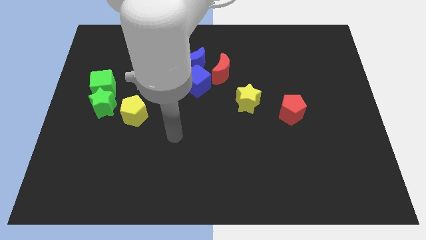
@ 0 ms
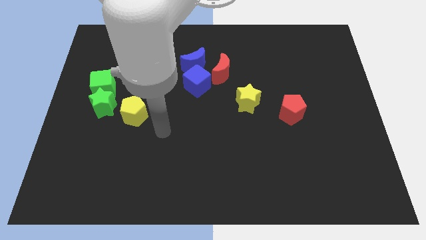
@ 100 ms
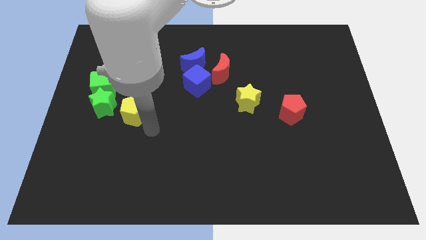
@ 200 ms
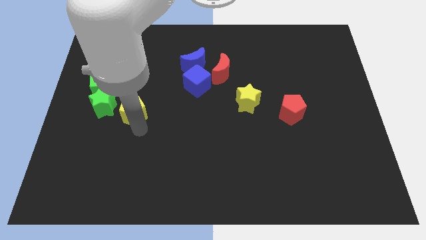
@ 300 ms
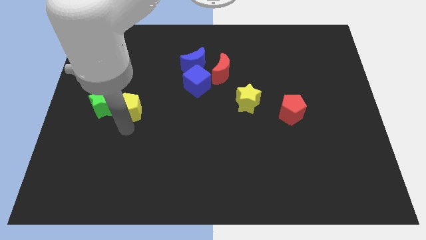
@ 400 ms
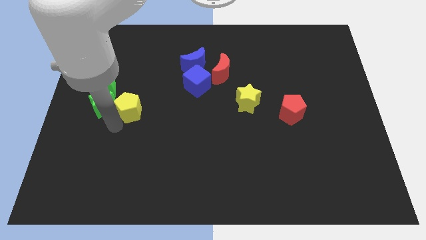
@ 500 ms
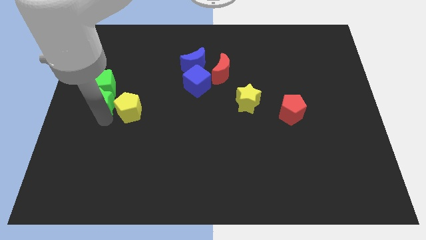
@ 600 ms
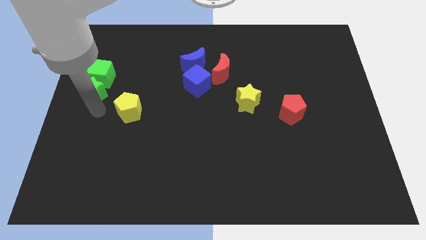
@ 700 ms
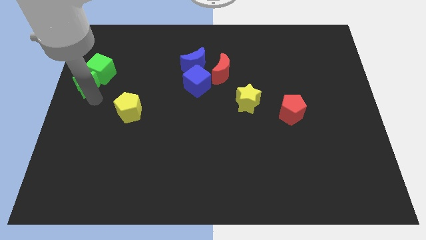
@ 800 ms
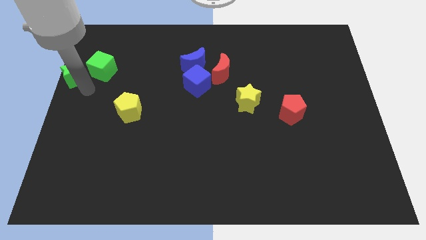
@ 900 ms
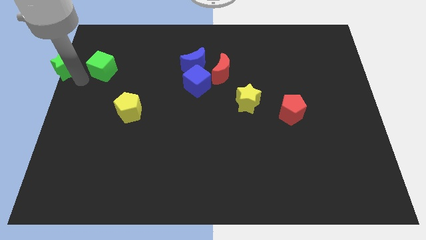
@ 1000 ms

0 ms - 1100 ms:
separate the green cube from the green star

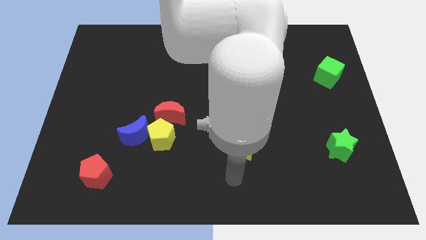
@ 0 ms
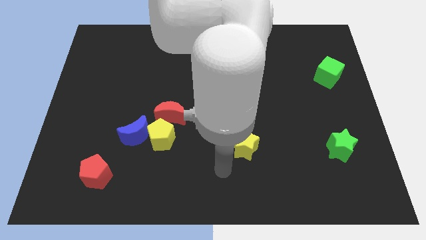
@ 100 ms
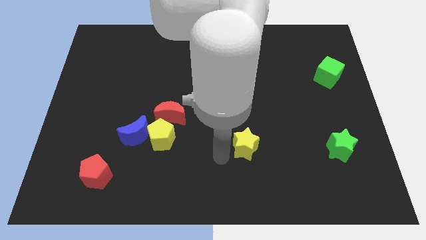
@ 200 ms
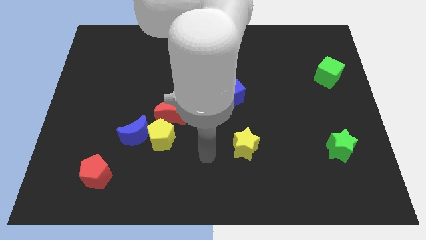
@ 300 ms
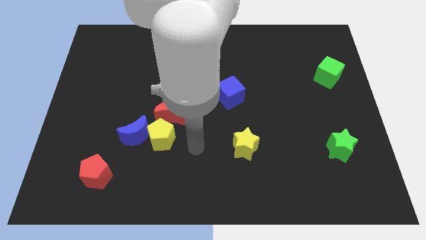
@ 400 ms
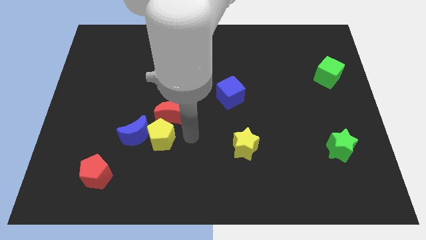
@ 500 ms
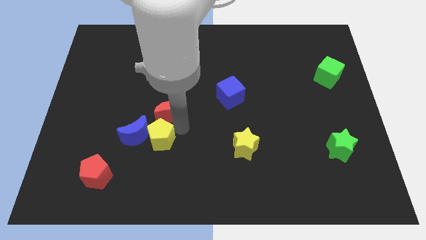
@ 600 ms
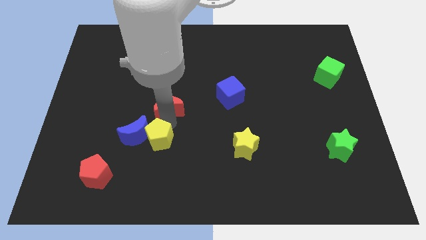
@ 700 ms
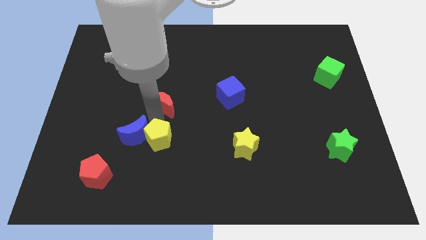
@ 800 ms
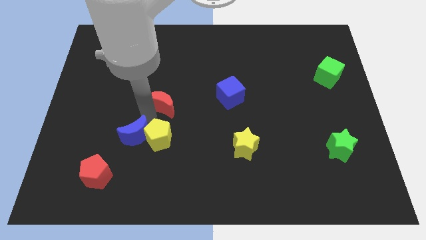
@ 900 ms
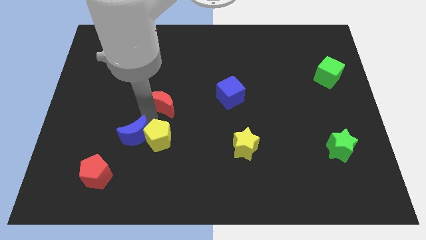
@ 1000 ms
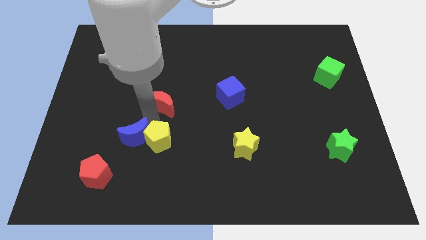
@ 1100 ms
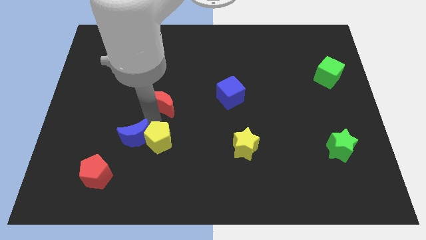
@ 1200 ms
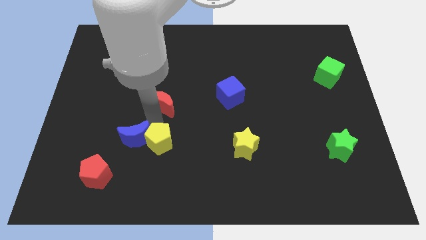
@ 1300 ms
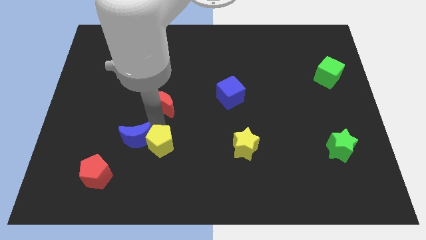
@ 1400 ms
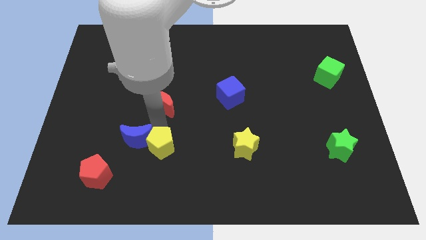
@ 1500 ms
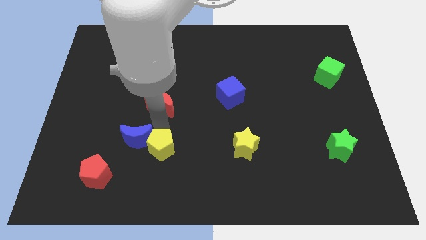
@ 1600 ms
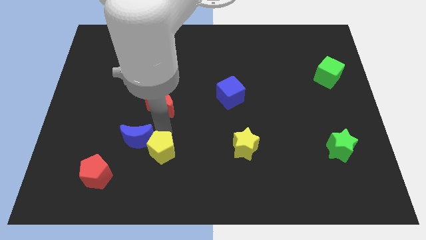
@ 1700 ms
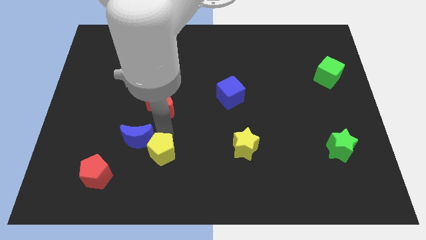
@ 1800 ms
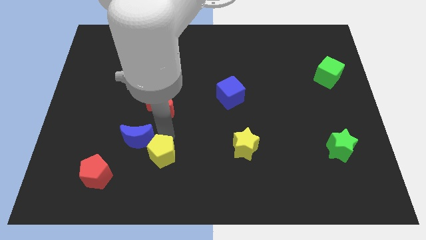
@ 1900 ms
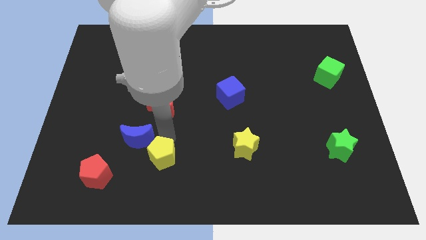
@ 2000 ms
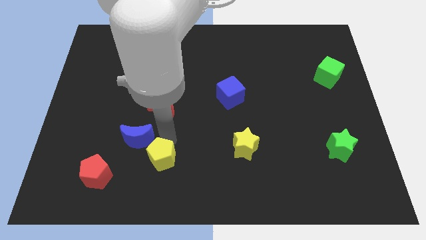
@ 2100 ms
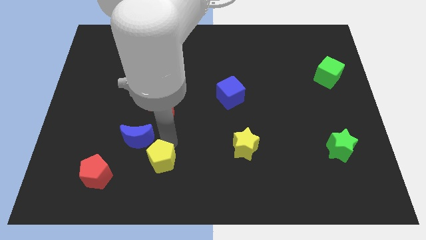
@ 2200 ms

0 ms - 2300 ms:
move the yellow pentagon away from the blue moon and red moon

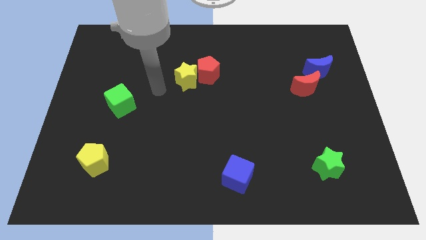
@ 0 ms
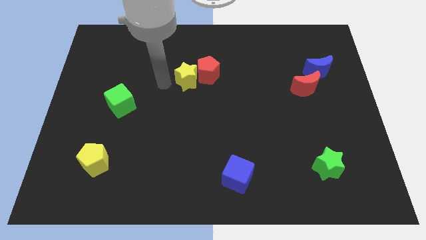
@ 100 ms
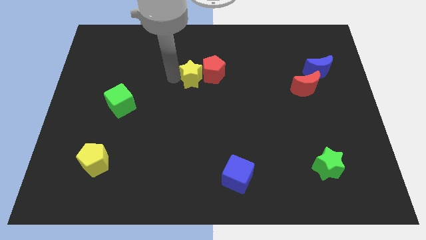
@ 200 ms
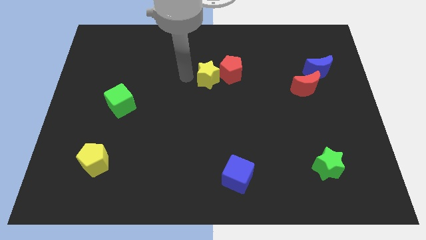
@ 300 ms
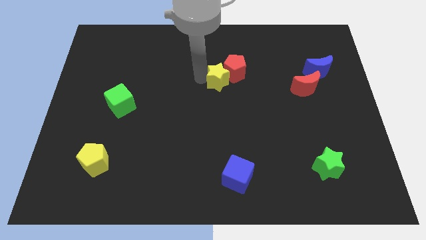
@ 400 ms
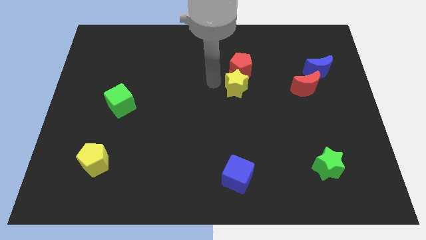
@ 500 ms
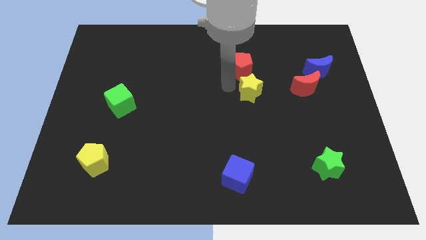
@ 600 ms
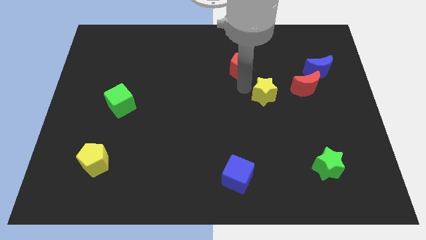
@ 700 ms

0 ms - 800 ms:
separate the red pentagon from the yellow star

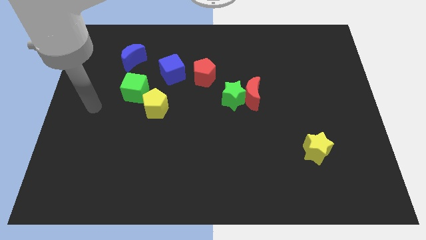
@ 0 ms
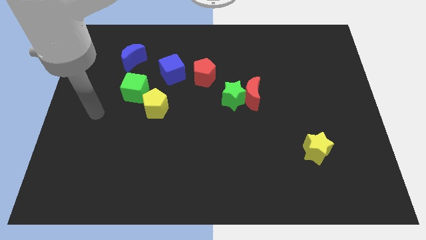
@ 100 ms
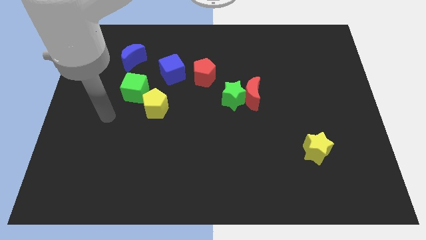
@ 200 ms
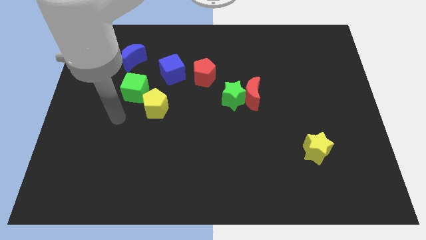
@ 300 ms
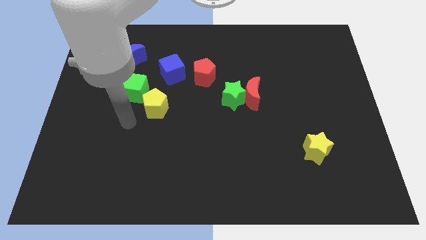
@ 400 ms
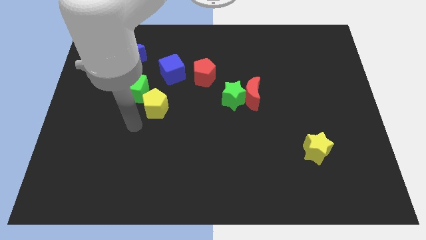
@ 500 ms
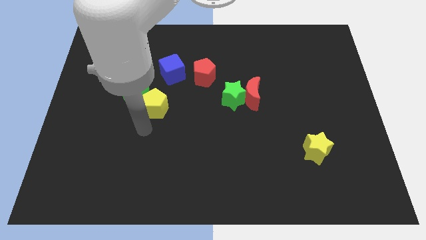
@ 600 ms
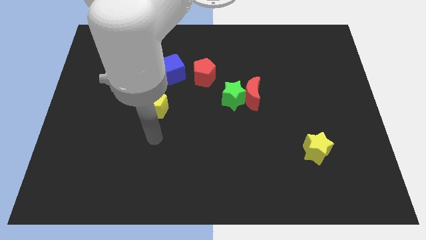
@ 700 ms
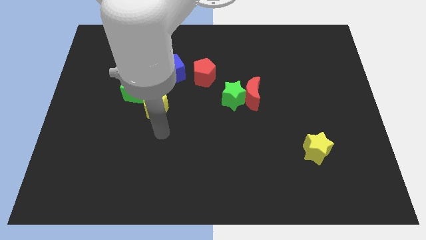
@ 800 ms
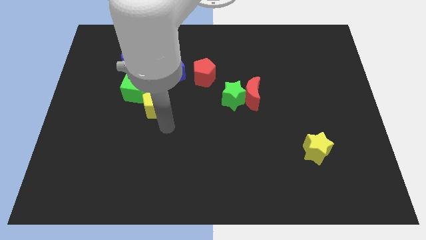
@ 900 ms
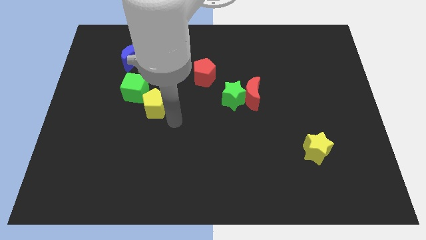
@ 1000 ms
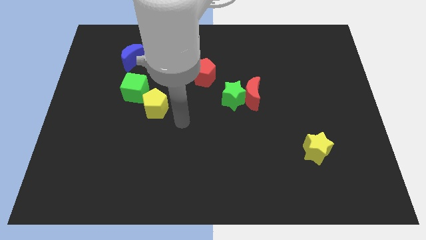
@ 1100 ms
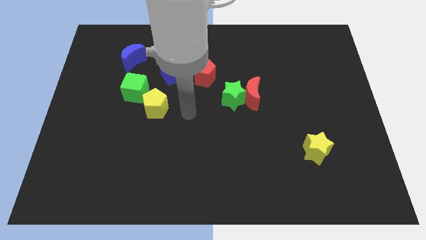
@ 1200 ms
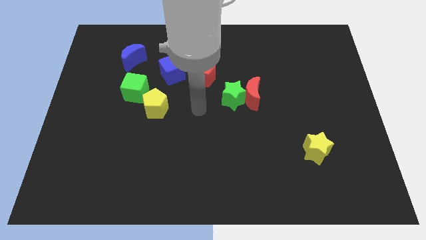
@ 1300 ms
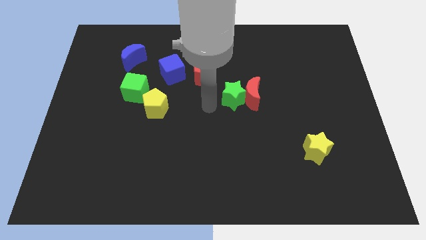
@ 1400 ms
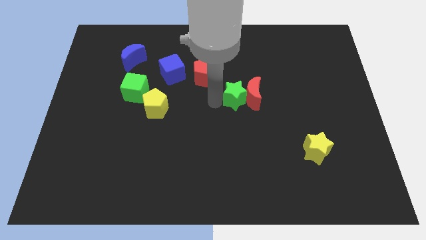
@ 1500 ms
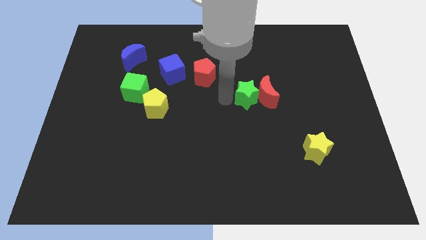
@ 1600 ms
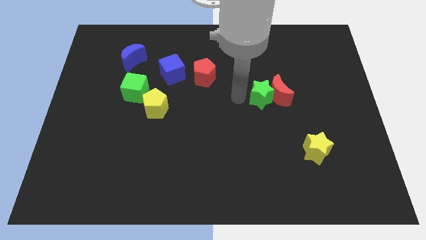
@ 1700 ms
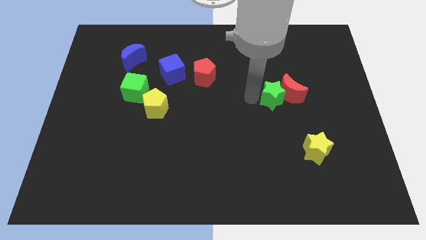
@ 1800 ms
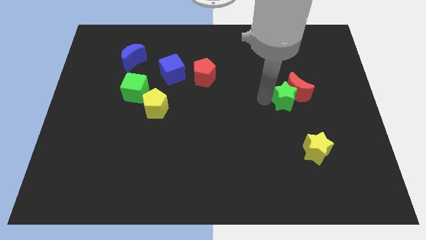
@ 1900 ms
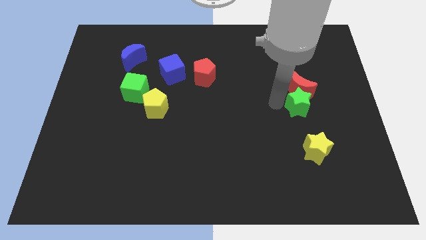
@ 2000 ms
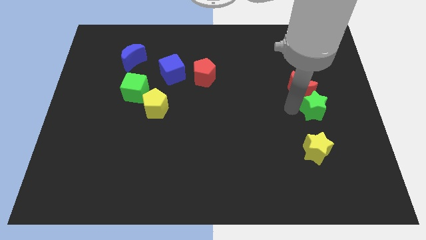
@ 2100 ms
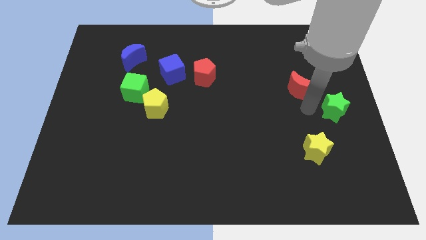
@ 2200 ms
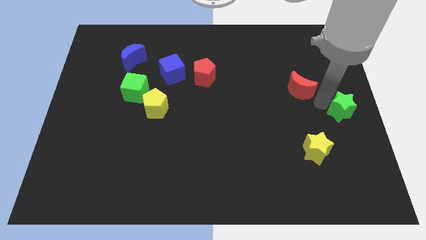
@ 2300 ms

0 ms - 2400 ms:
pull the red moon apart from the green star

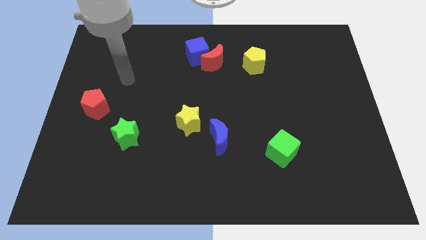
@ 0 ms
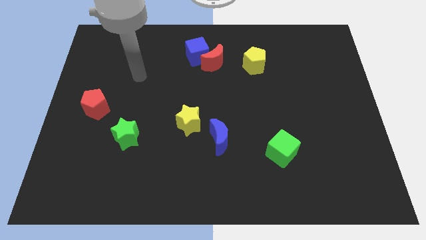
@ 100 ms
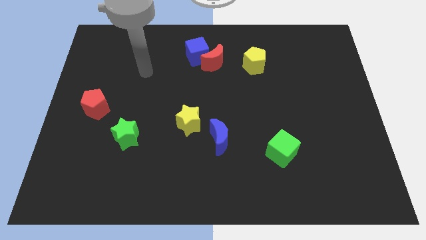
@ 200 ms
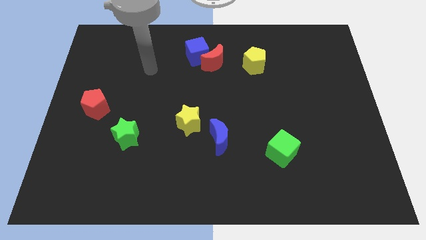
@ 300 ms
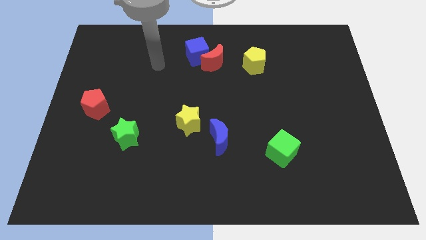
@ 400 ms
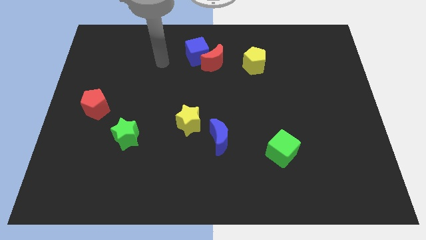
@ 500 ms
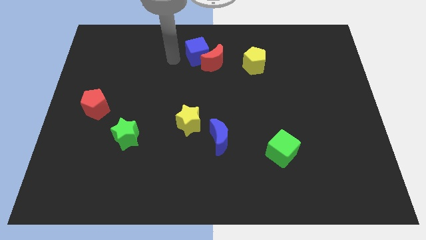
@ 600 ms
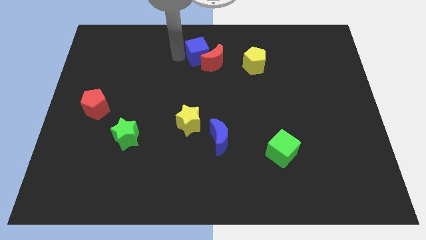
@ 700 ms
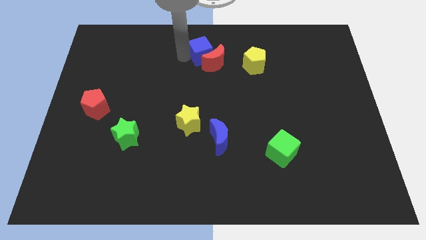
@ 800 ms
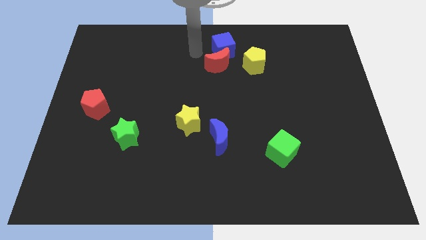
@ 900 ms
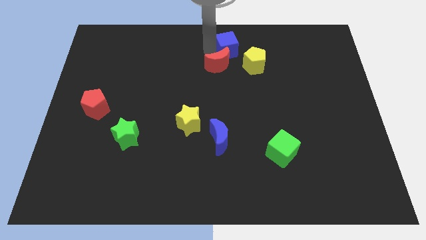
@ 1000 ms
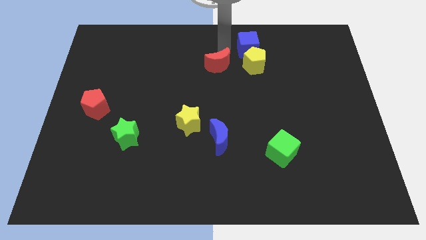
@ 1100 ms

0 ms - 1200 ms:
separate the red moon from the blue cube

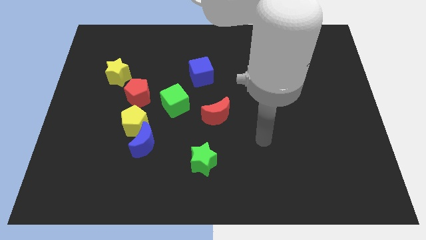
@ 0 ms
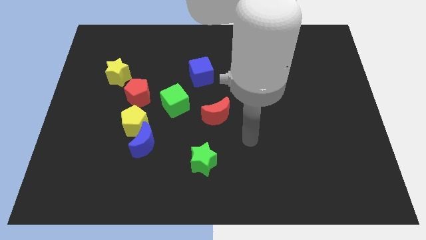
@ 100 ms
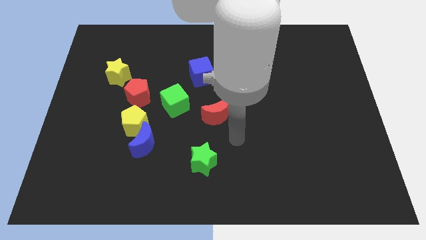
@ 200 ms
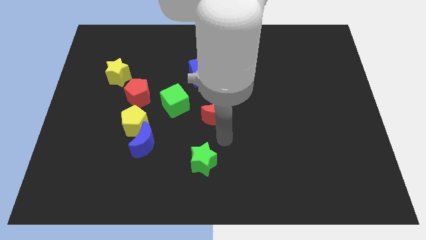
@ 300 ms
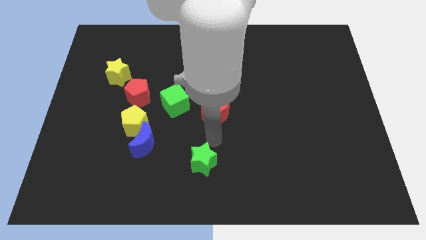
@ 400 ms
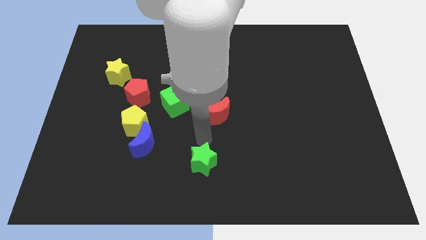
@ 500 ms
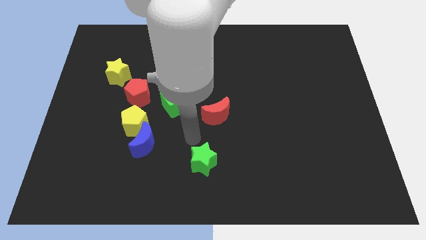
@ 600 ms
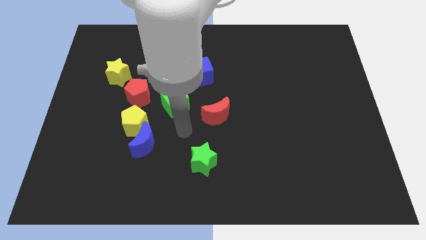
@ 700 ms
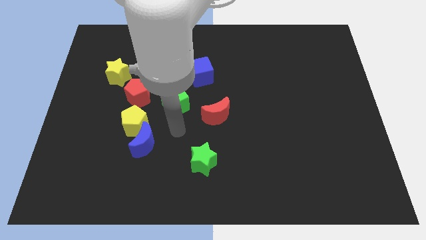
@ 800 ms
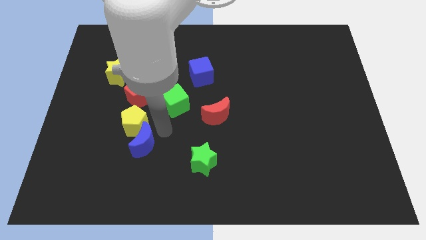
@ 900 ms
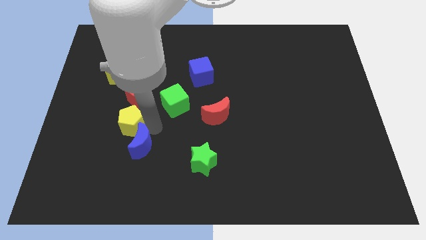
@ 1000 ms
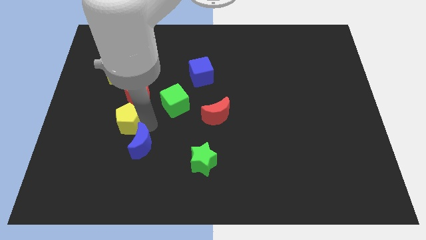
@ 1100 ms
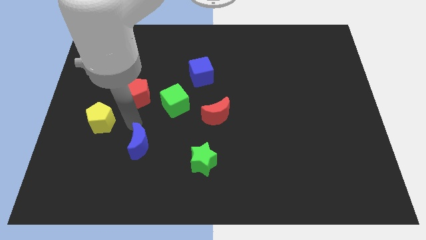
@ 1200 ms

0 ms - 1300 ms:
move the blue moon away from the yellow pentagon

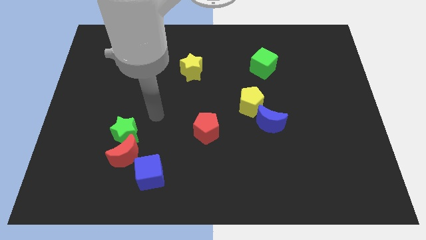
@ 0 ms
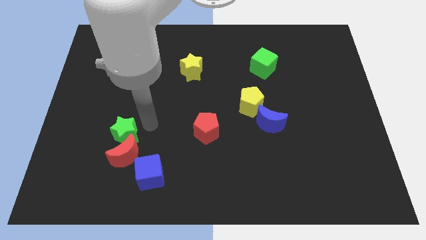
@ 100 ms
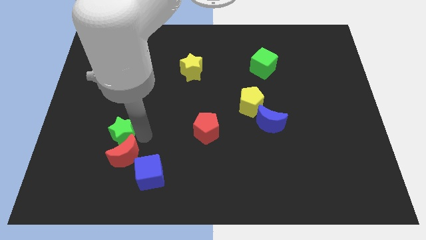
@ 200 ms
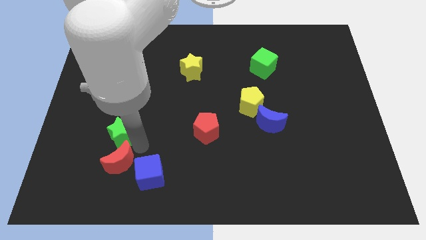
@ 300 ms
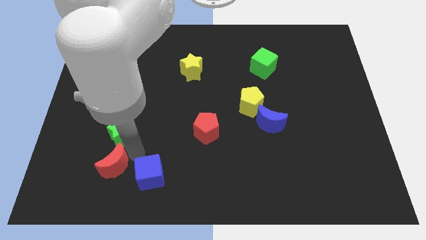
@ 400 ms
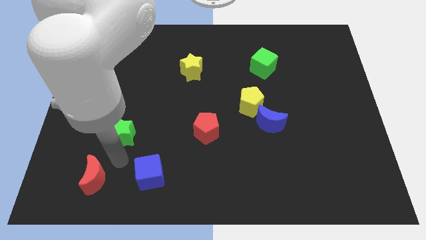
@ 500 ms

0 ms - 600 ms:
move the green star away from the red moon
